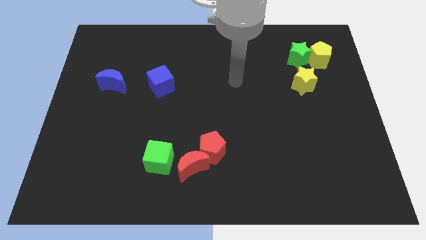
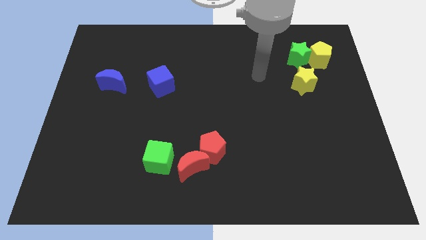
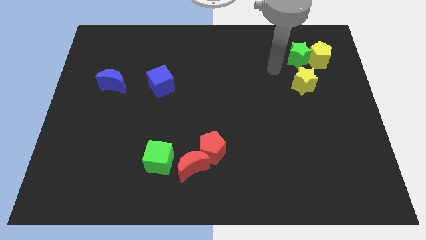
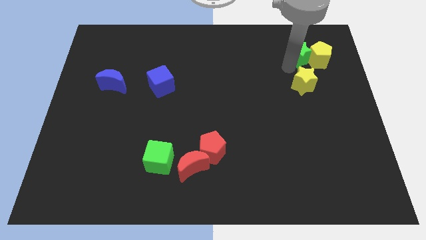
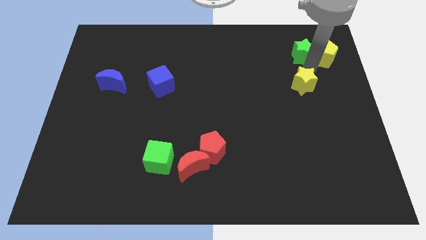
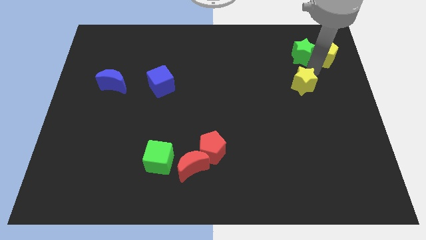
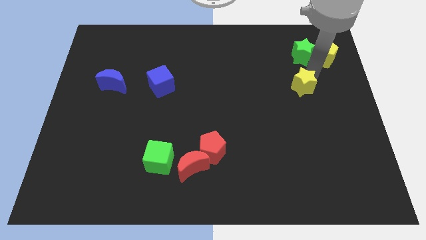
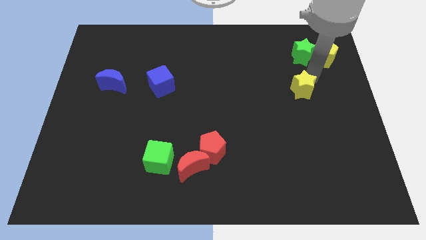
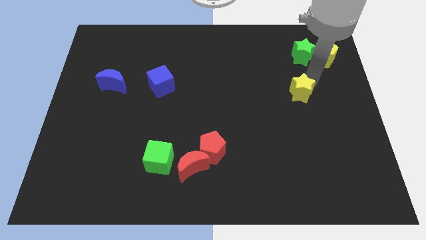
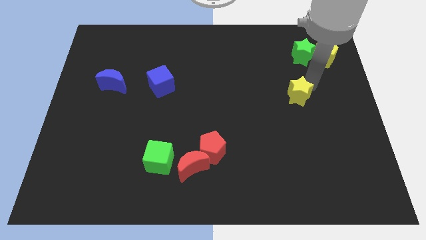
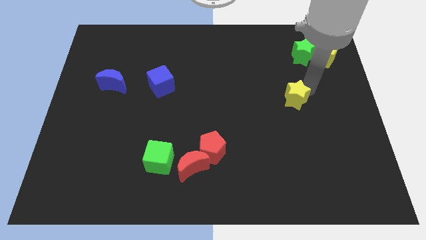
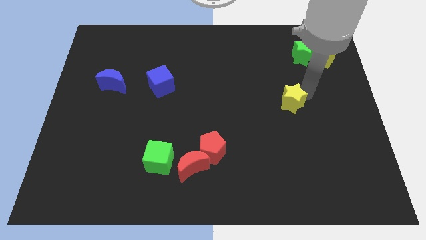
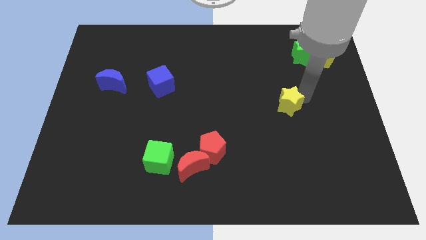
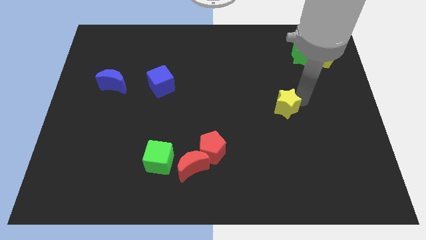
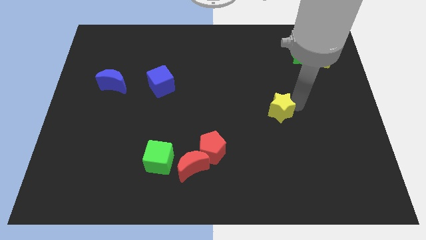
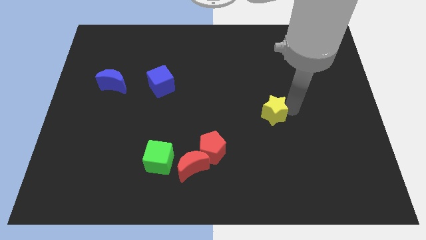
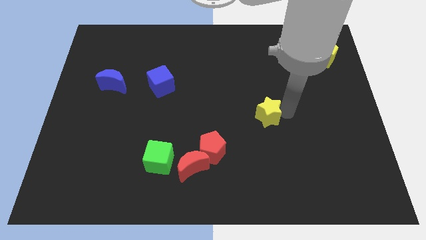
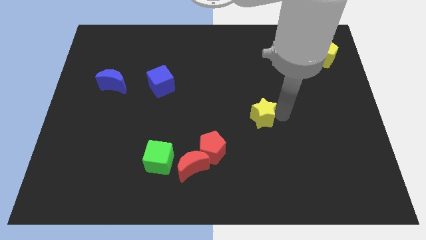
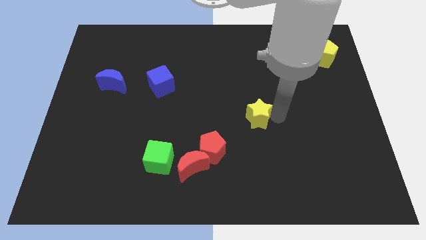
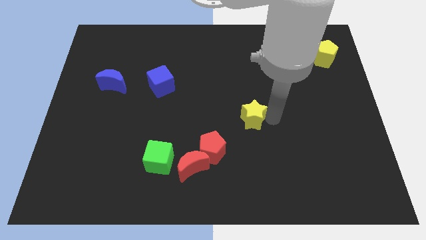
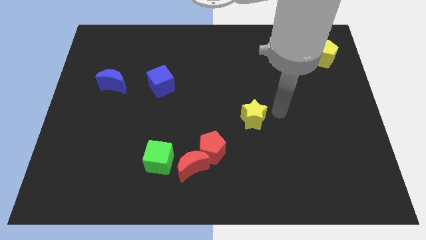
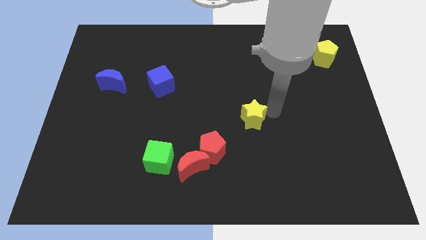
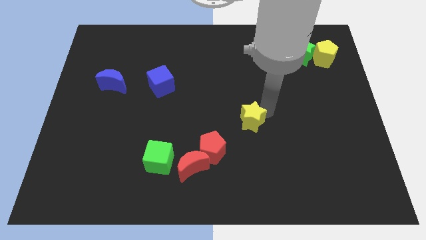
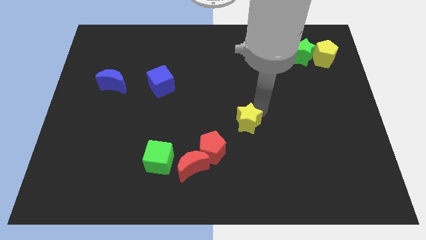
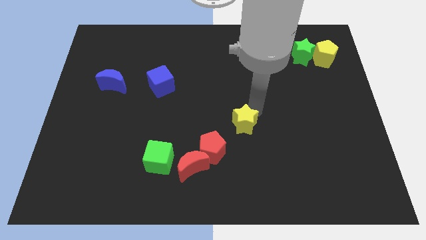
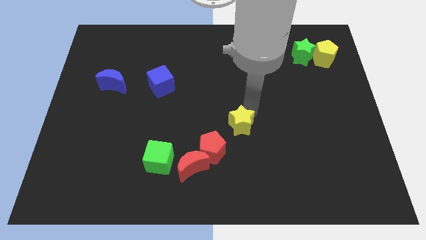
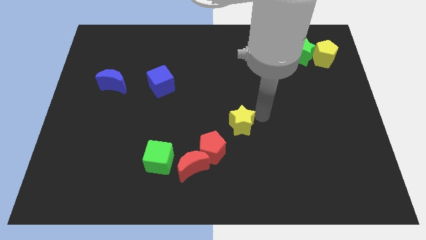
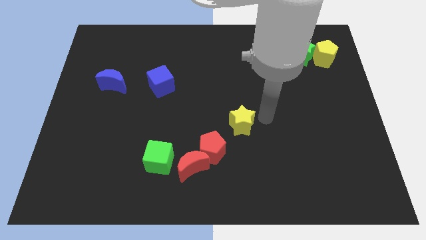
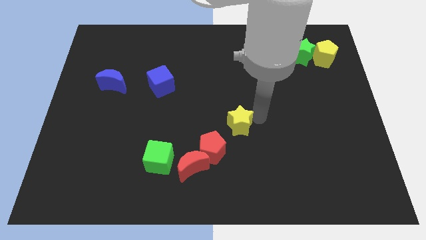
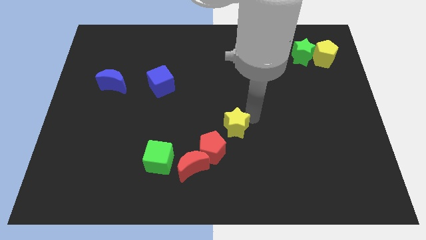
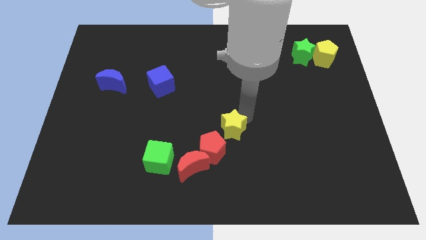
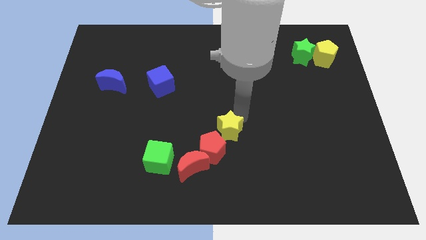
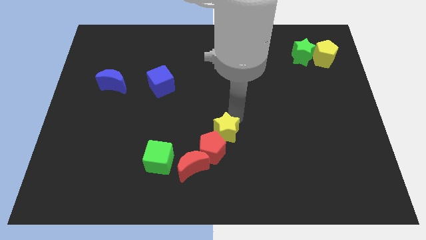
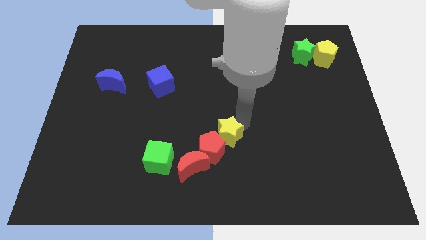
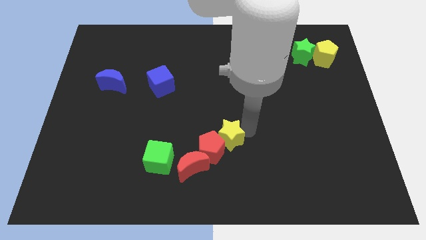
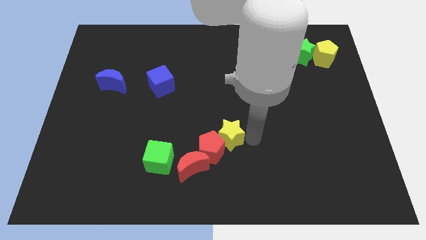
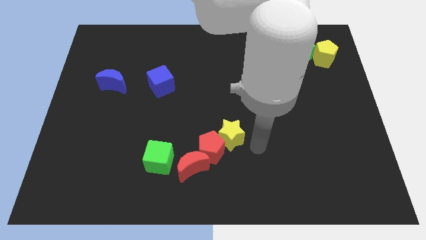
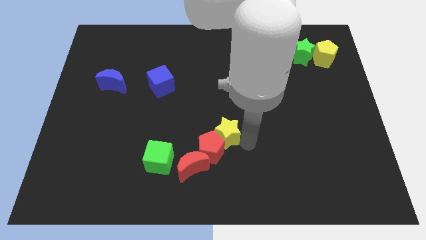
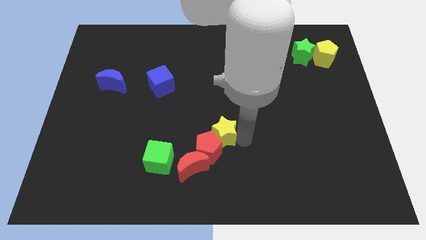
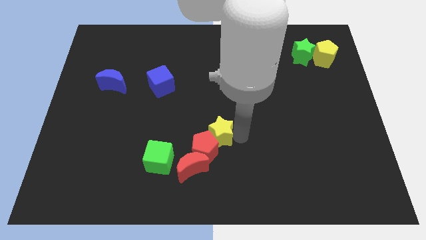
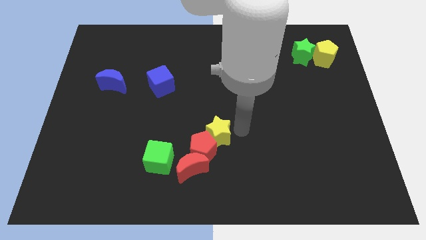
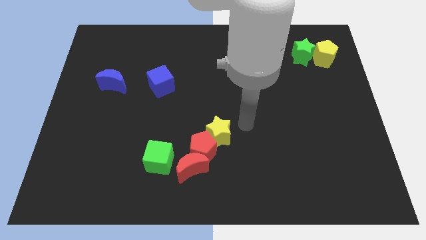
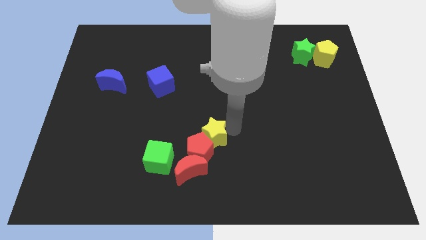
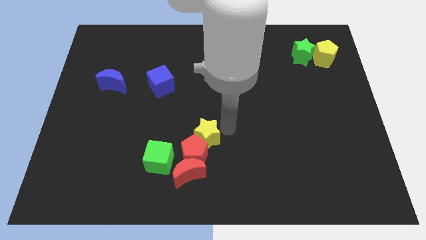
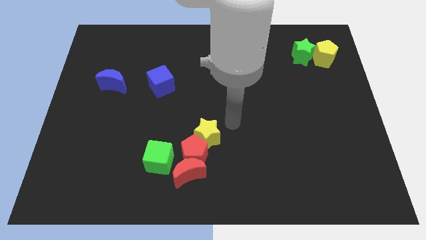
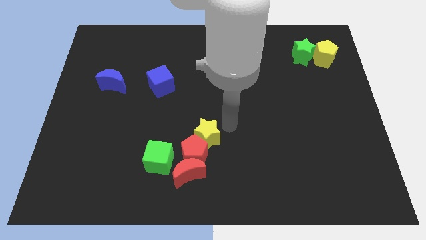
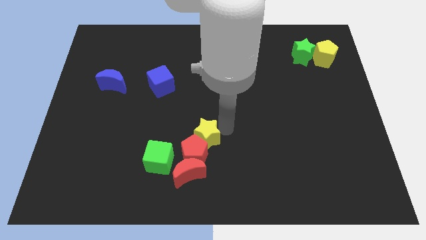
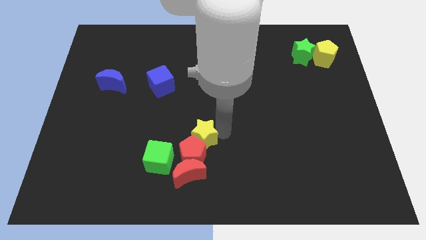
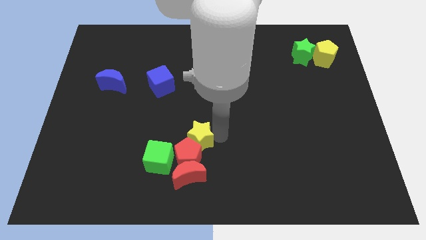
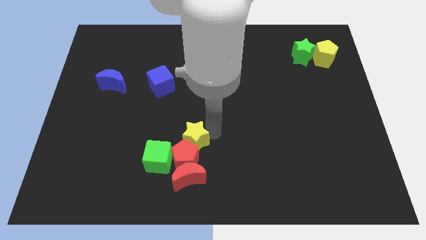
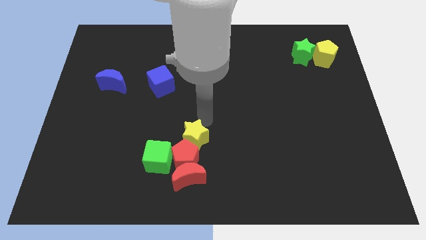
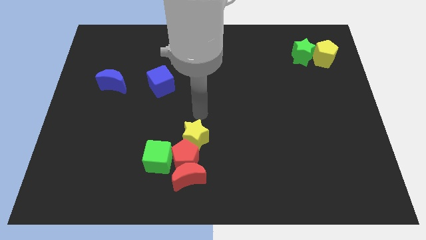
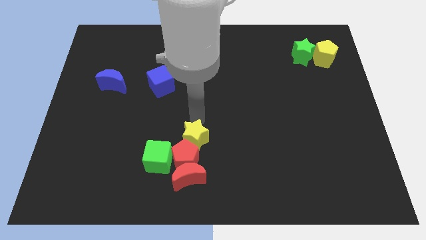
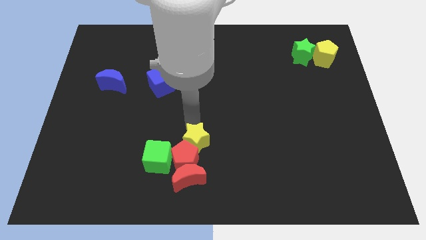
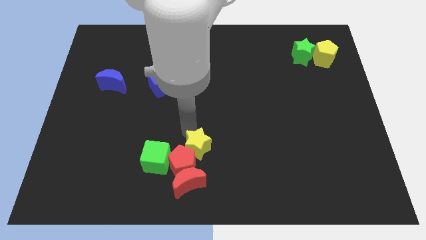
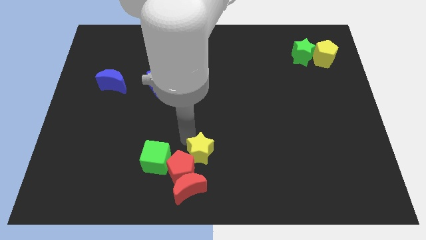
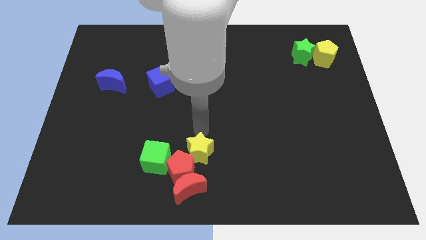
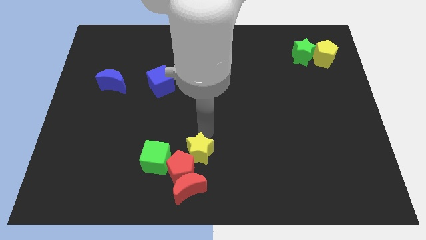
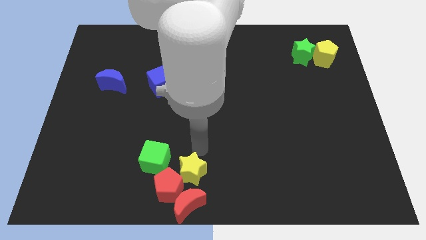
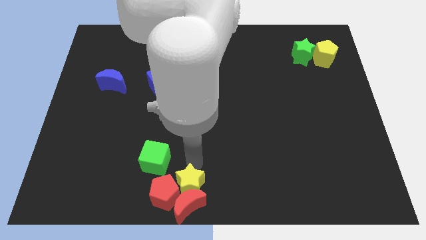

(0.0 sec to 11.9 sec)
put the yellow star close to the red moon

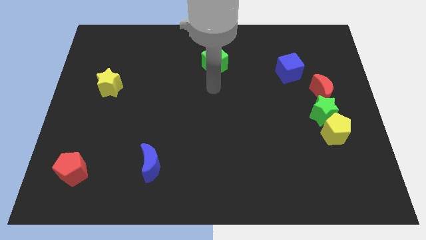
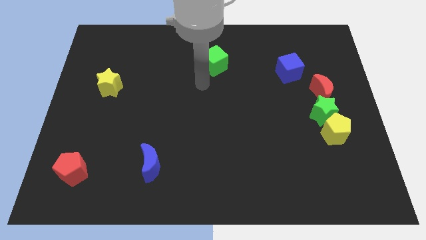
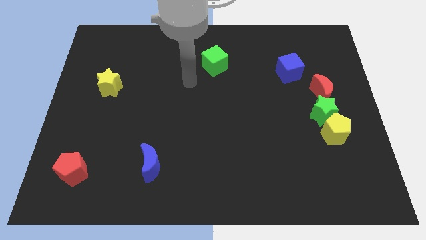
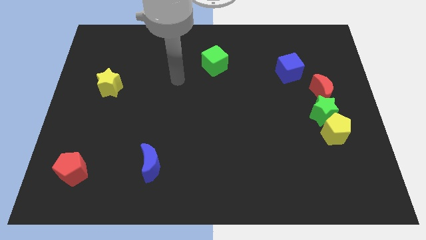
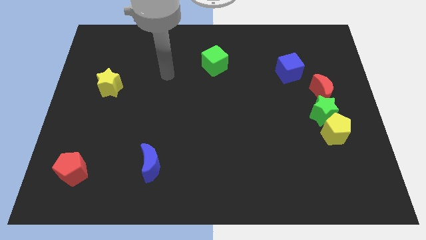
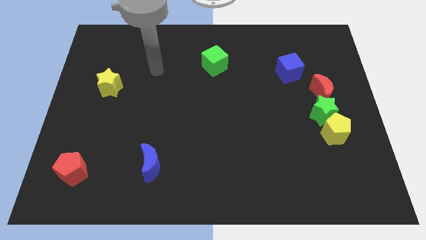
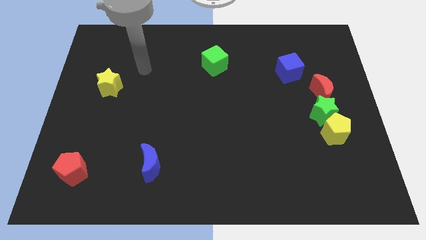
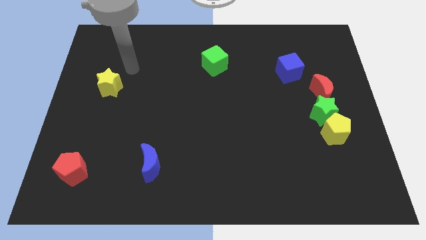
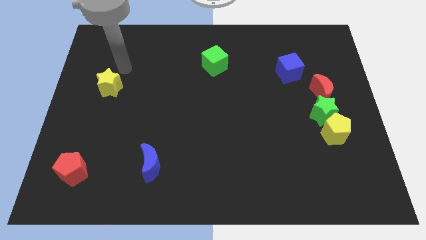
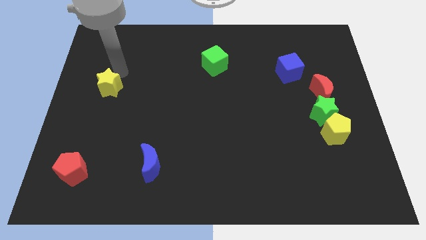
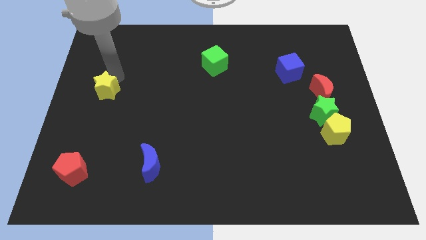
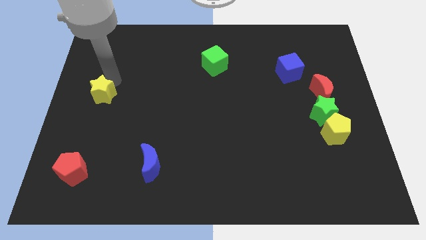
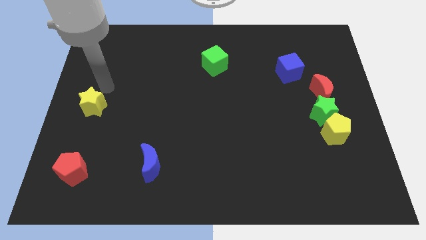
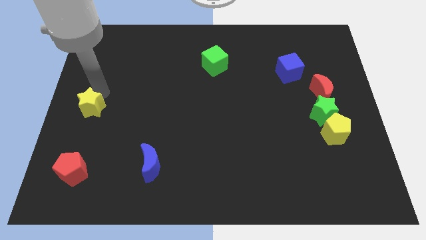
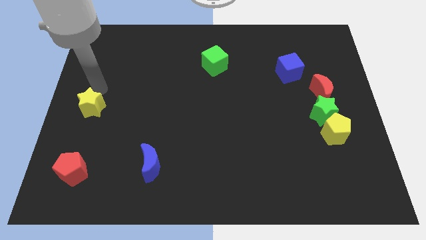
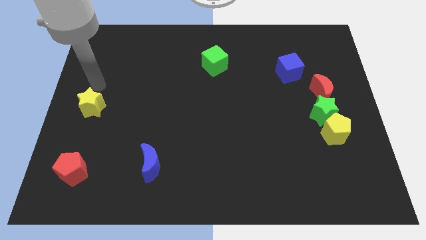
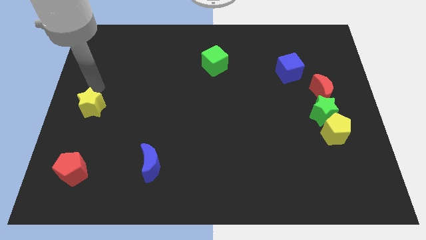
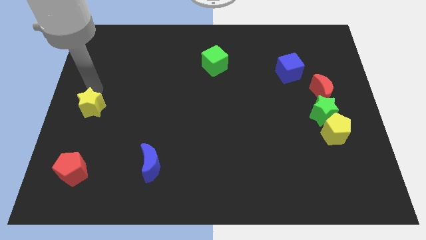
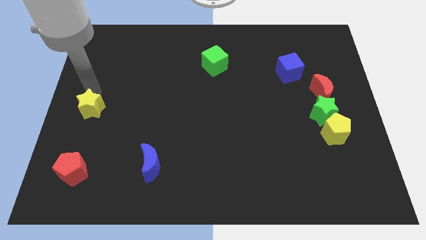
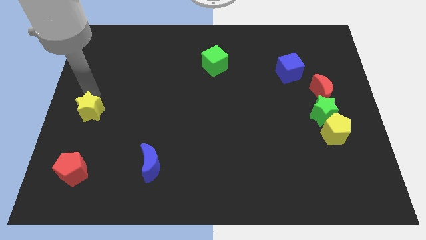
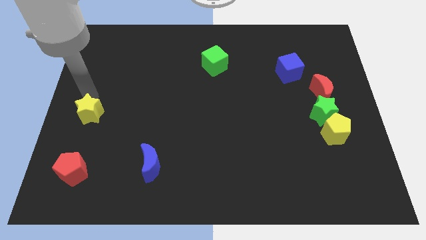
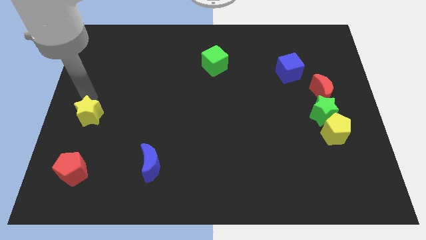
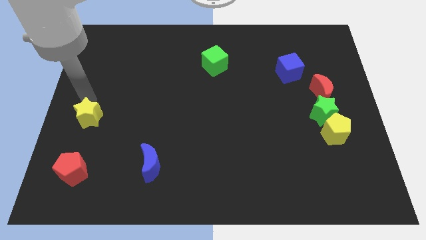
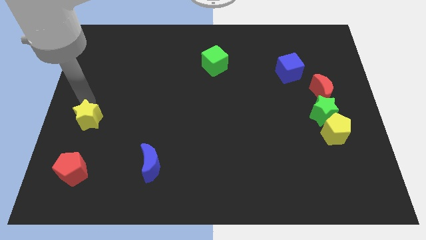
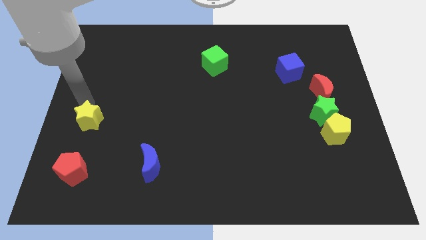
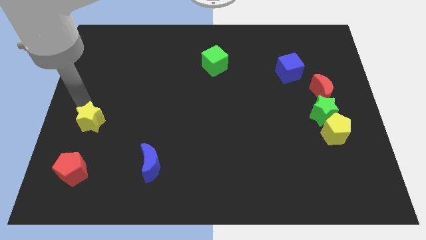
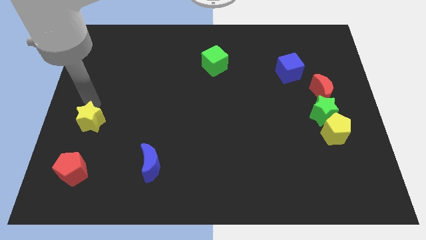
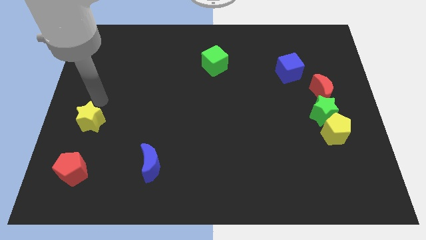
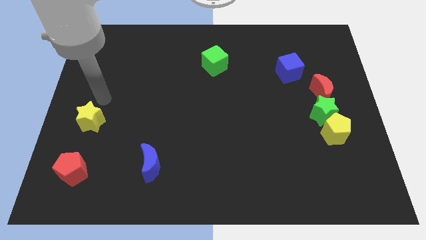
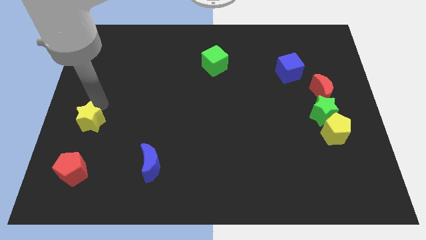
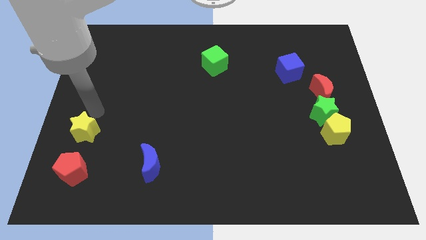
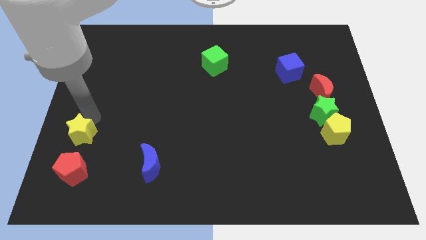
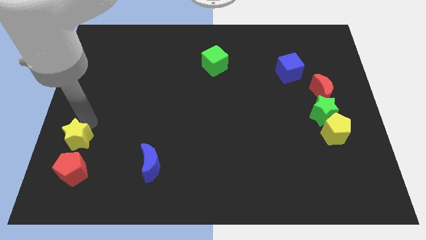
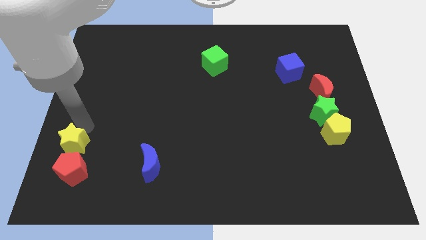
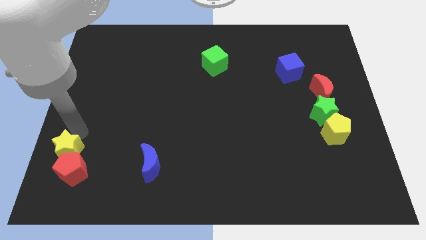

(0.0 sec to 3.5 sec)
push the yellow star next to the red pentagon
